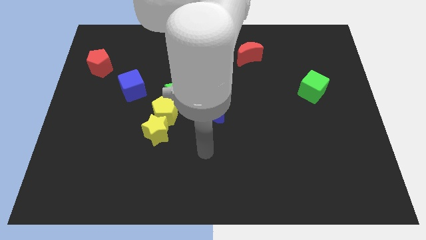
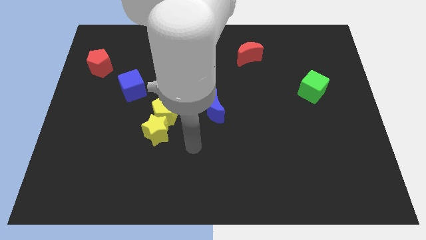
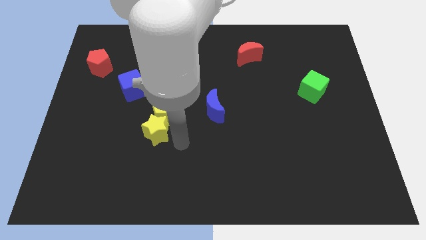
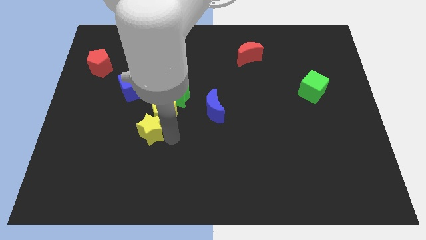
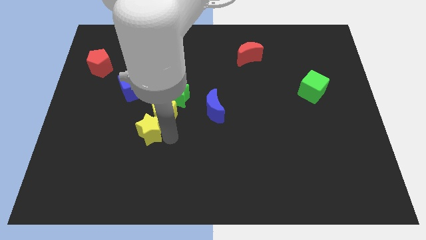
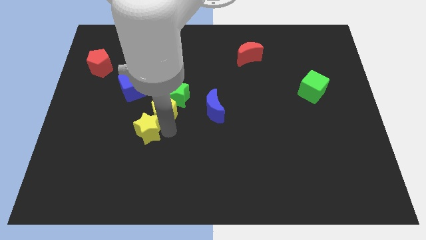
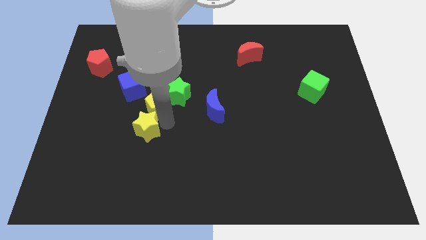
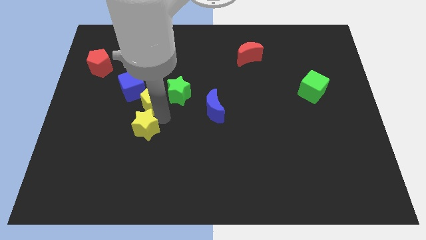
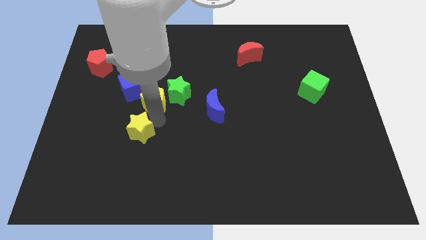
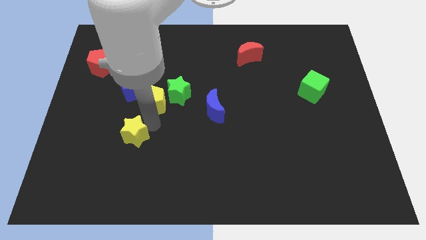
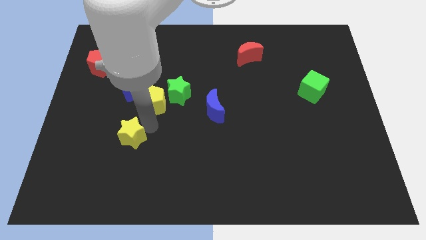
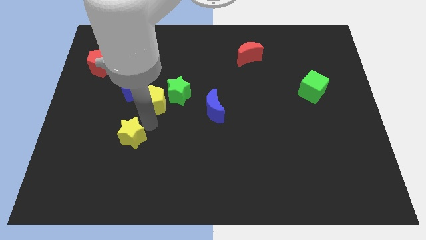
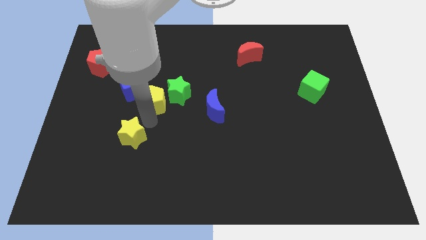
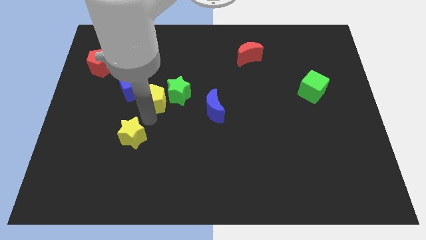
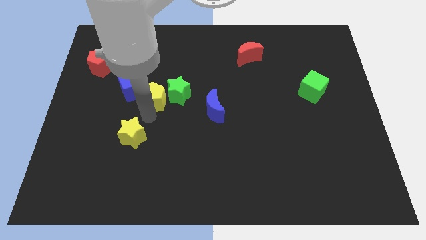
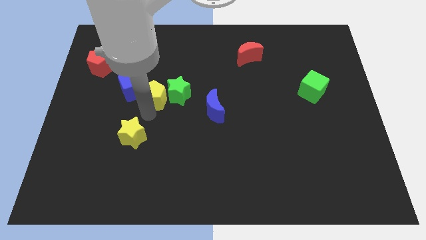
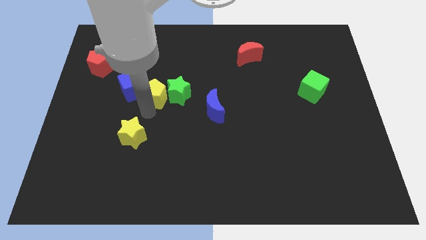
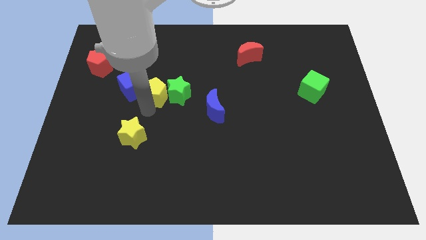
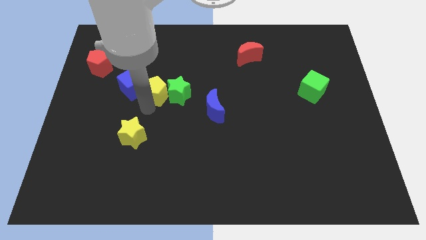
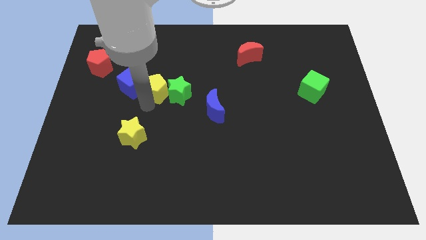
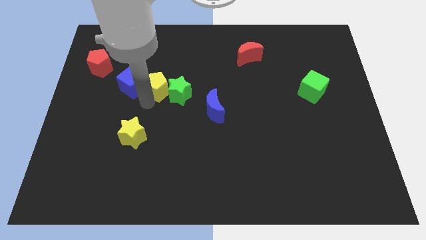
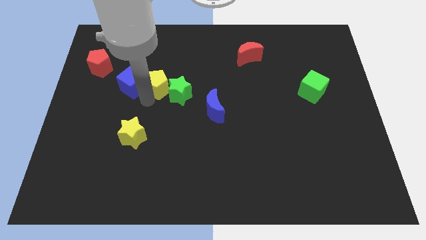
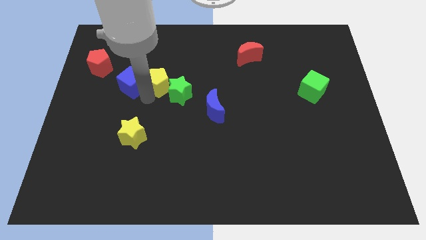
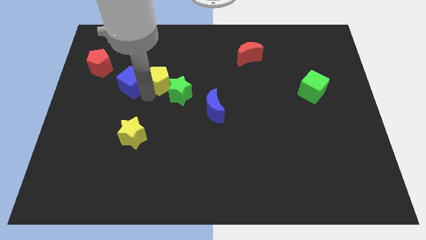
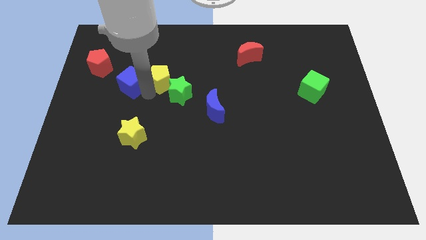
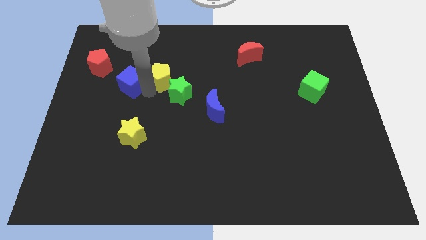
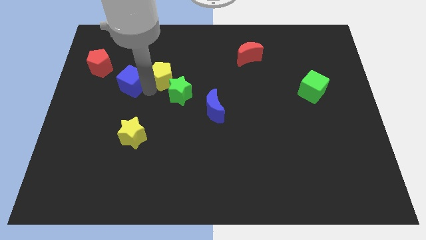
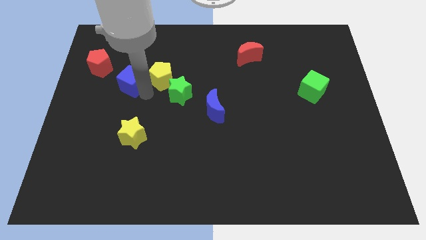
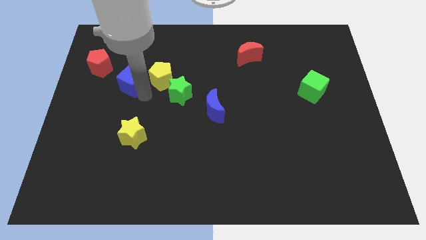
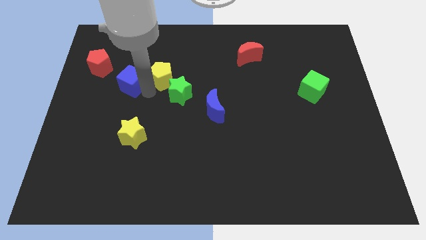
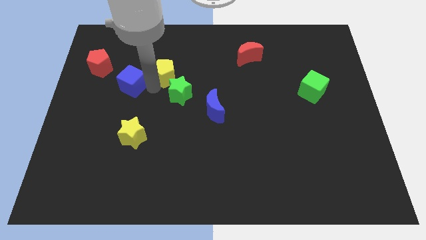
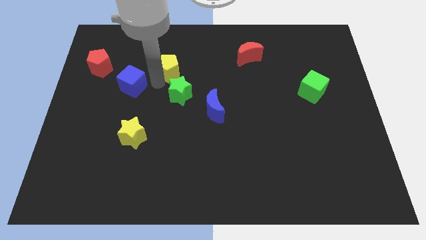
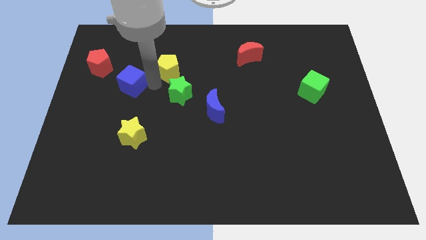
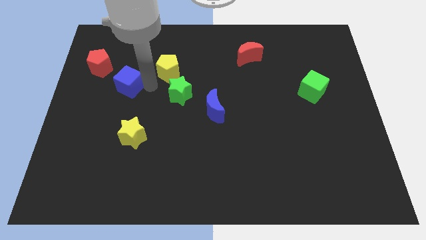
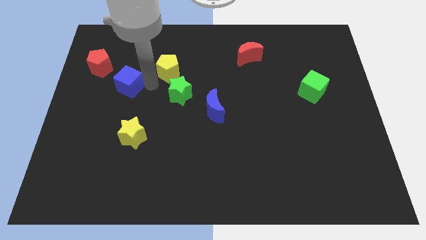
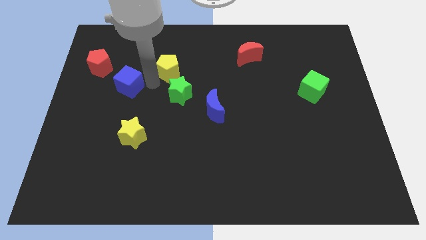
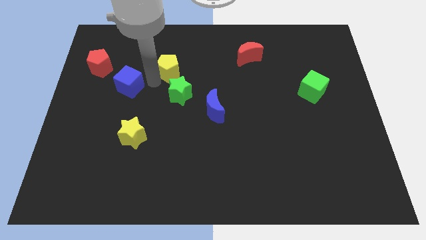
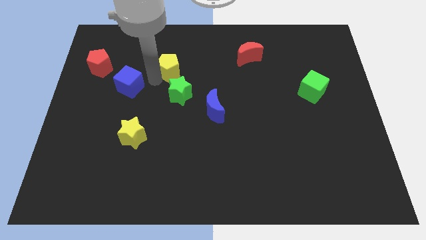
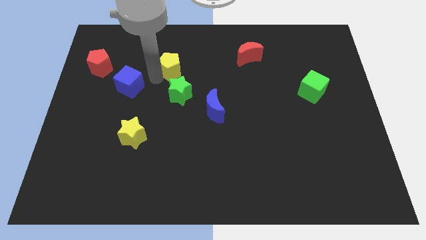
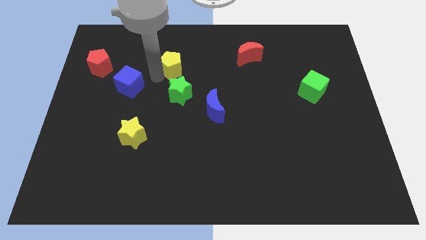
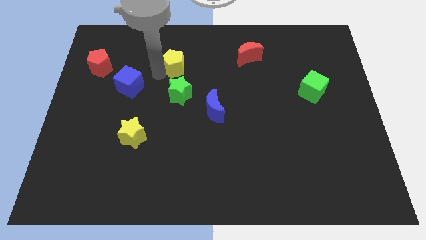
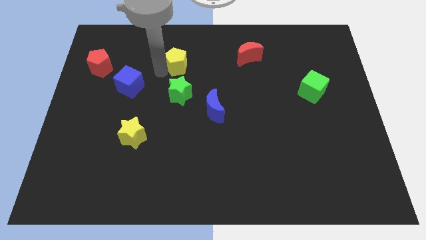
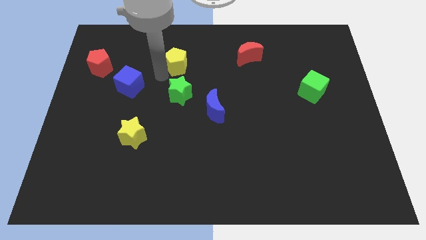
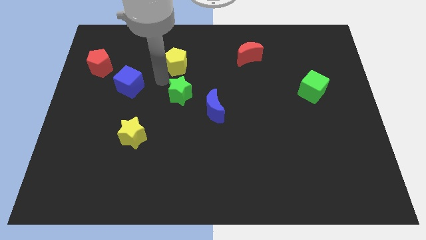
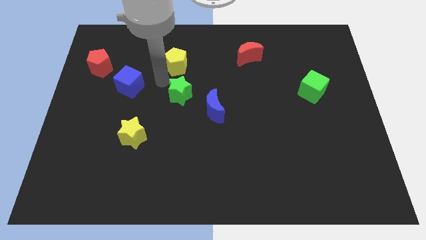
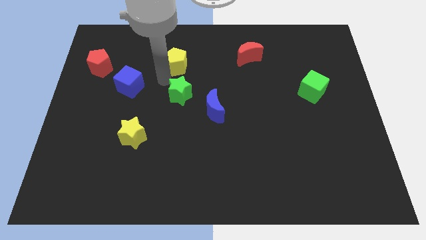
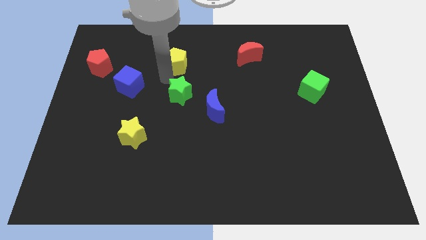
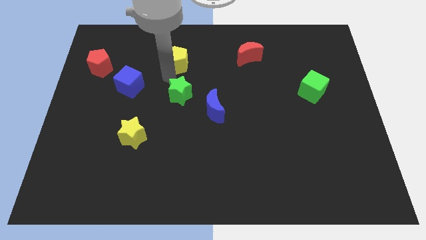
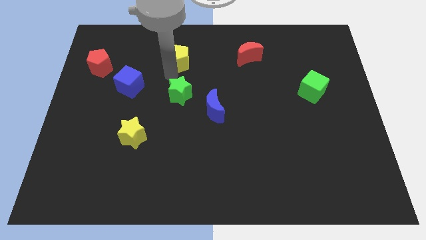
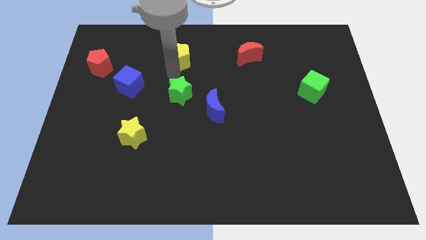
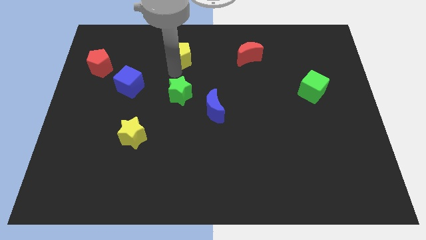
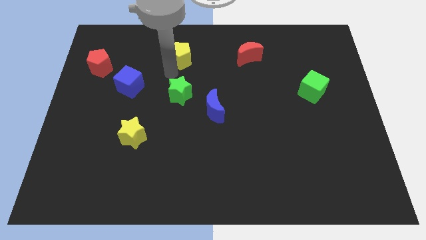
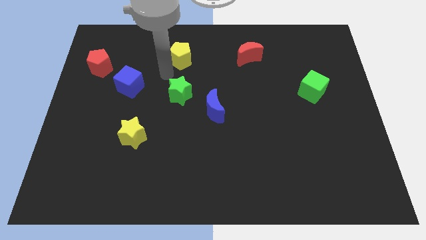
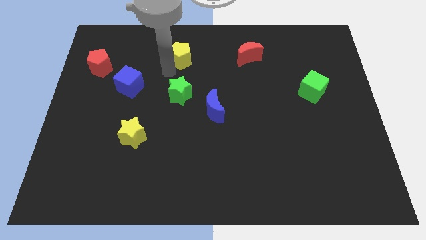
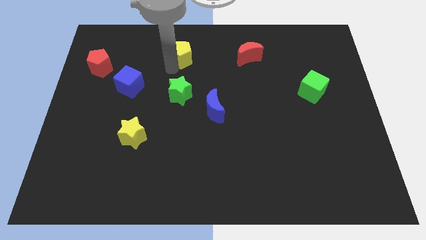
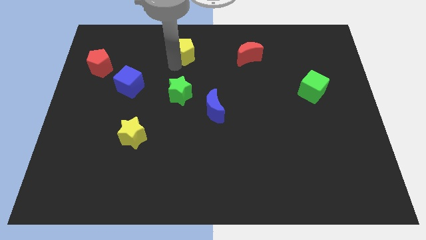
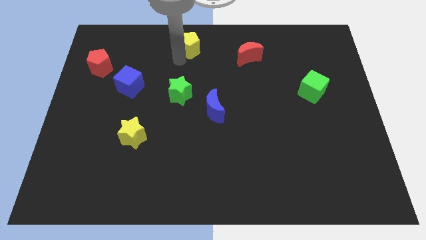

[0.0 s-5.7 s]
slide the yellow pentagon to the top side

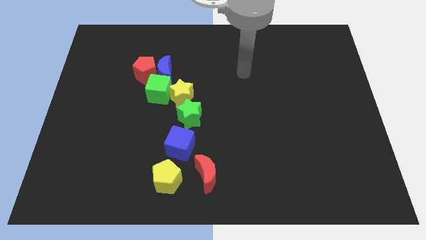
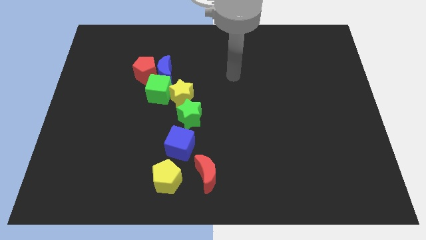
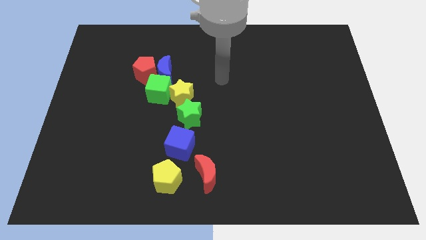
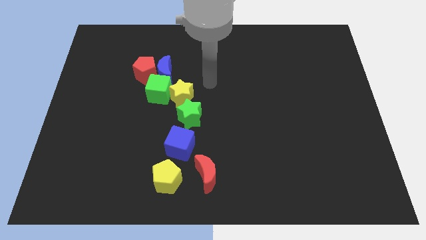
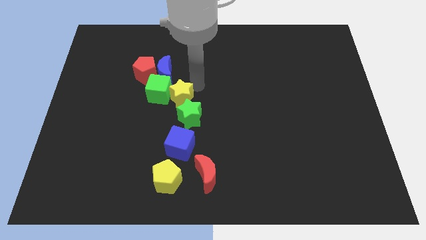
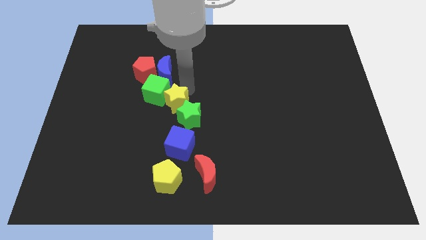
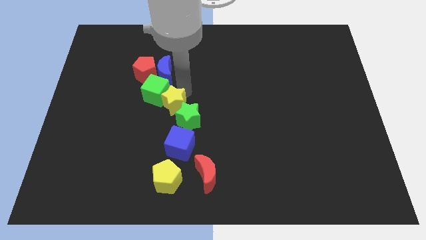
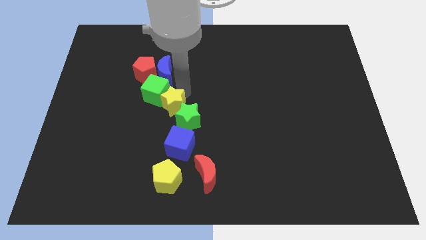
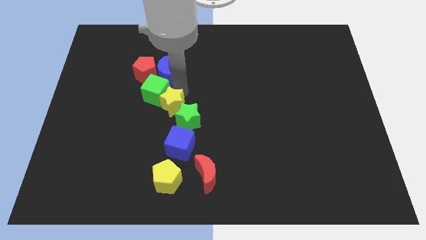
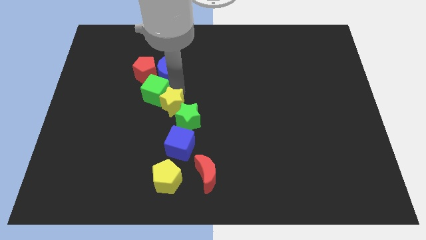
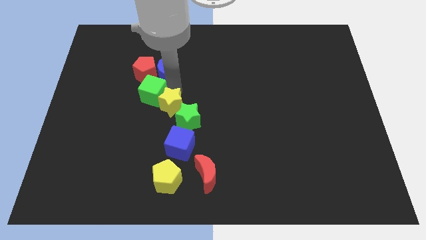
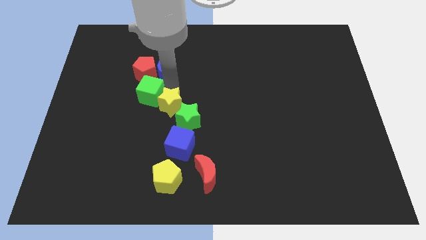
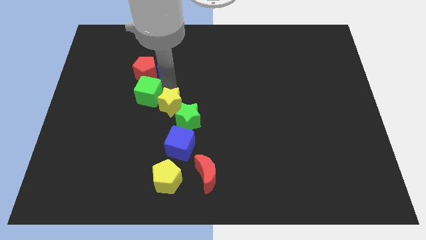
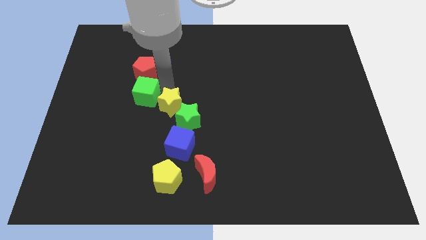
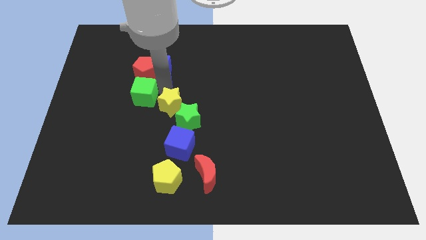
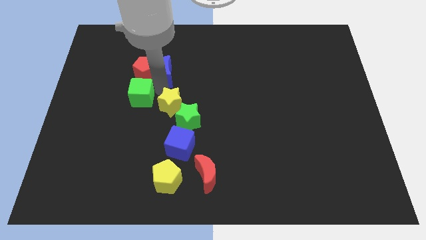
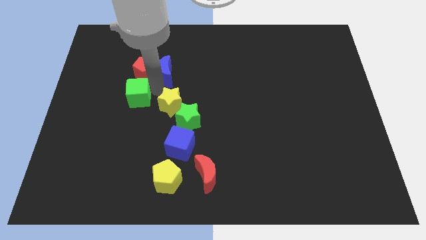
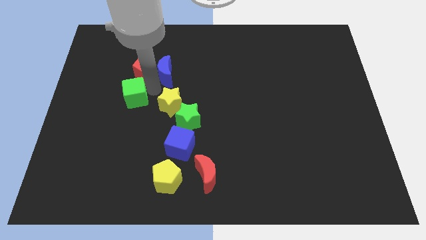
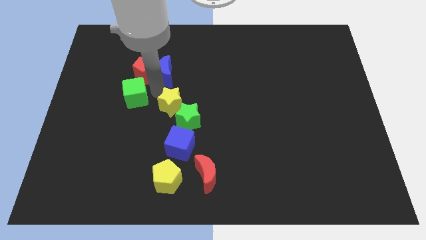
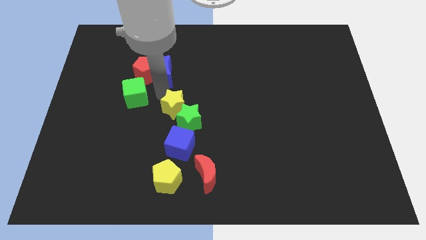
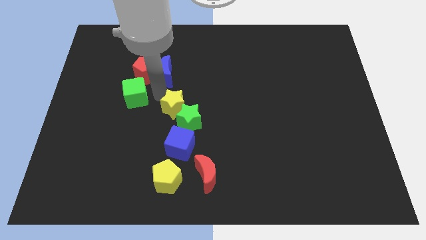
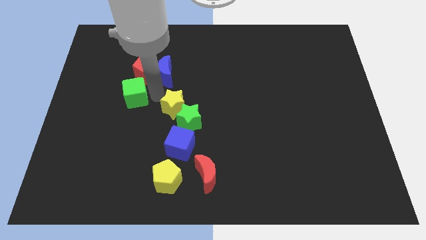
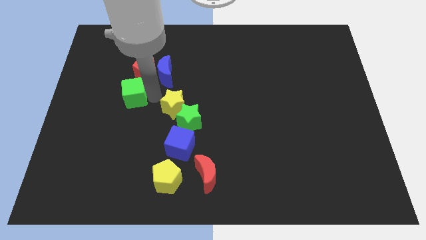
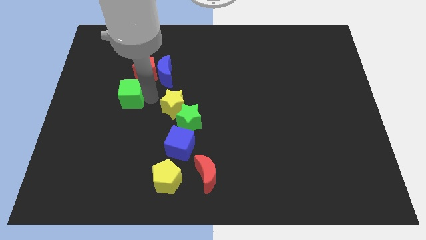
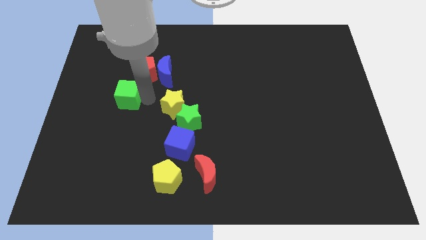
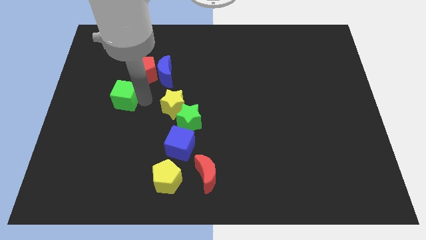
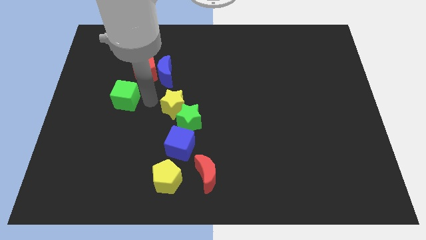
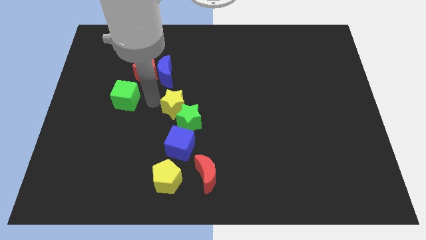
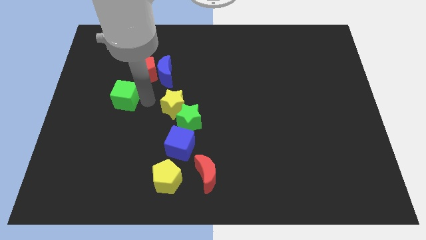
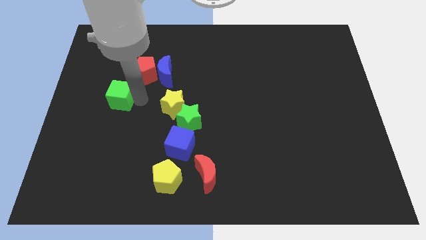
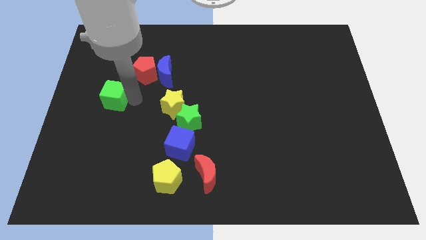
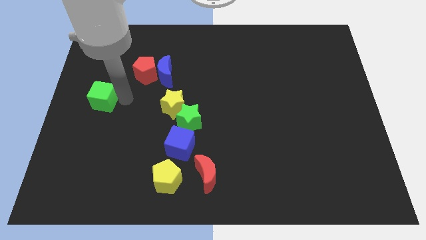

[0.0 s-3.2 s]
move the green cube to the left side
